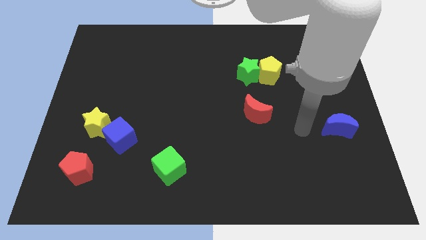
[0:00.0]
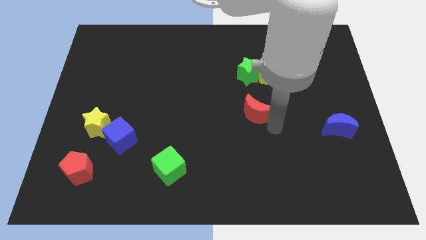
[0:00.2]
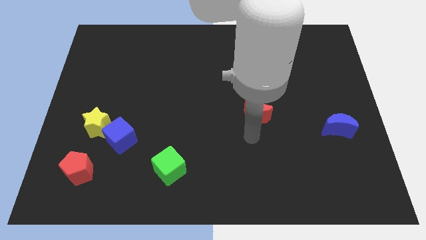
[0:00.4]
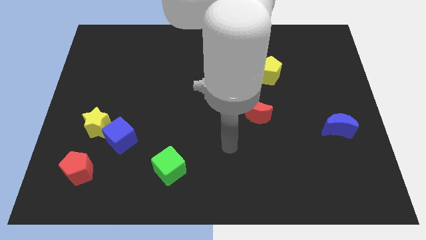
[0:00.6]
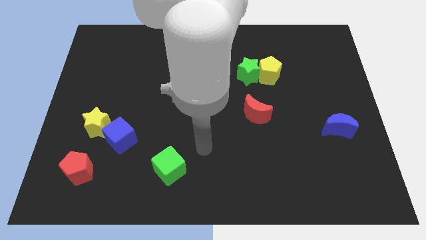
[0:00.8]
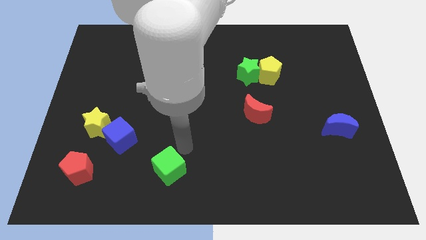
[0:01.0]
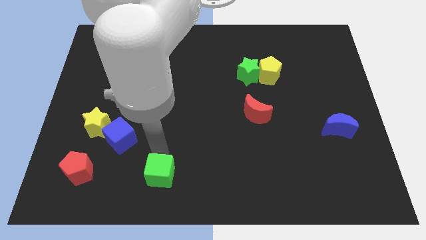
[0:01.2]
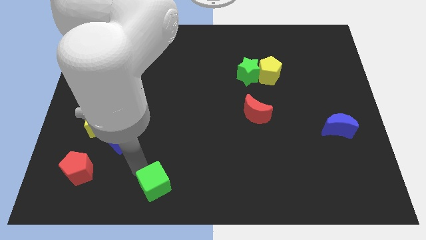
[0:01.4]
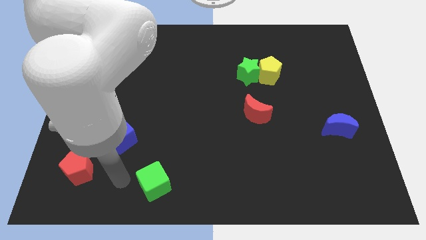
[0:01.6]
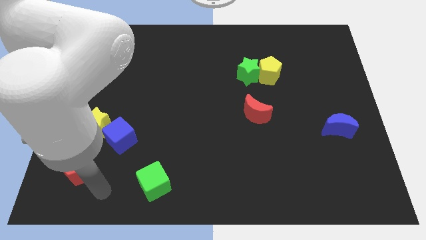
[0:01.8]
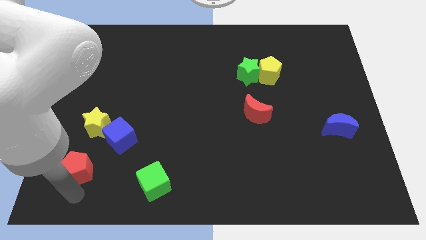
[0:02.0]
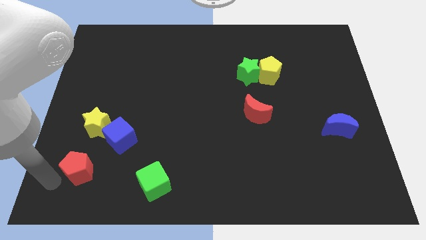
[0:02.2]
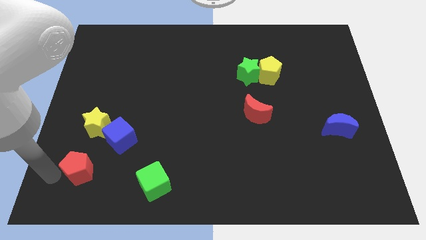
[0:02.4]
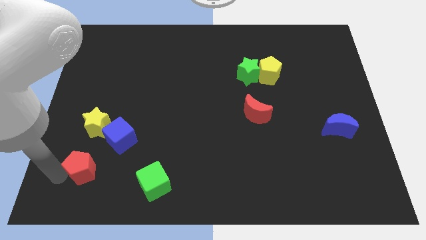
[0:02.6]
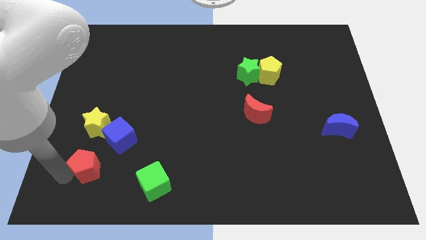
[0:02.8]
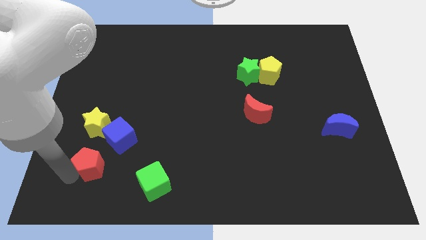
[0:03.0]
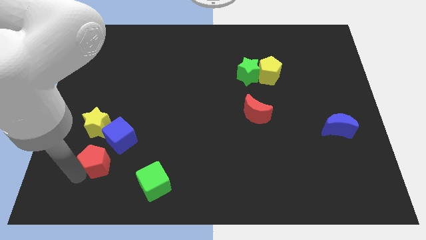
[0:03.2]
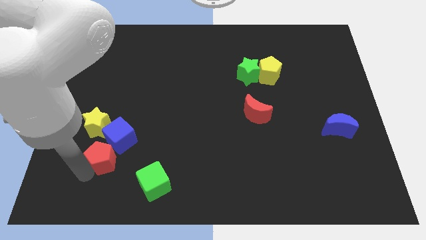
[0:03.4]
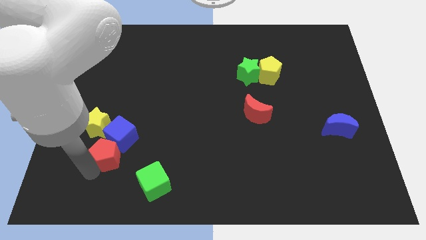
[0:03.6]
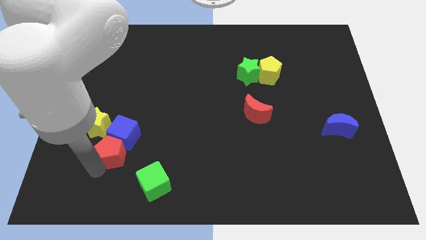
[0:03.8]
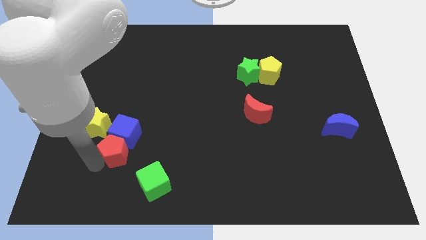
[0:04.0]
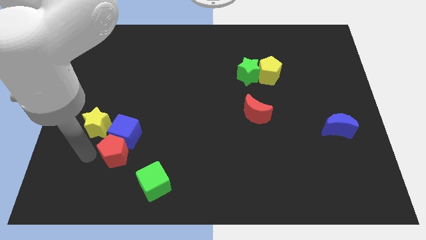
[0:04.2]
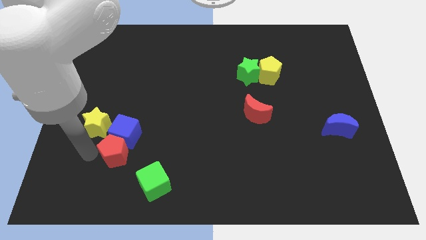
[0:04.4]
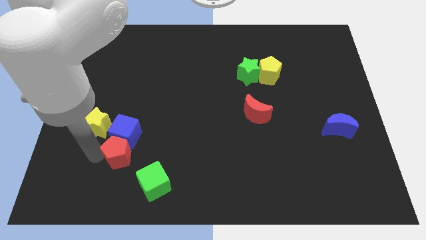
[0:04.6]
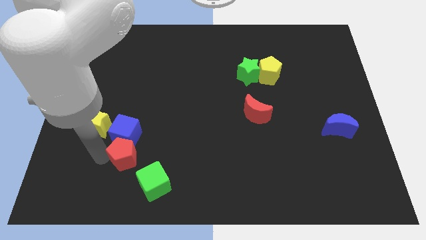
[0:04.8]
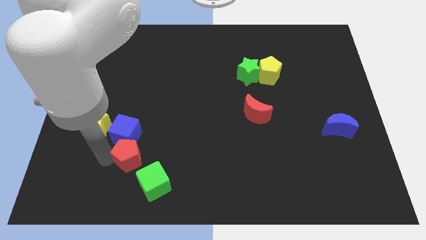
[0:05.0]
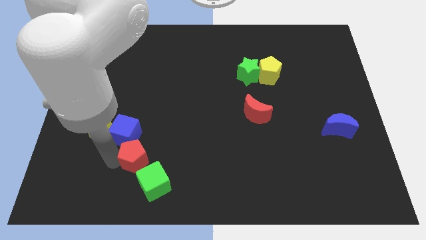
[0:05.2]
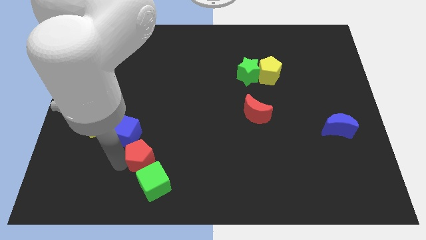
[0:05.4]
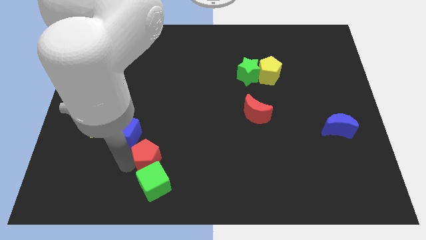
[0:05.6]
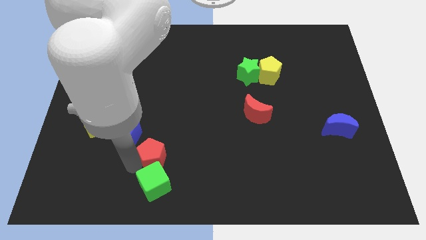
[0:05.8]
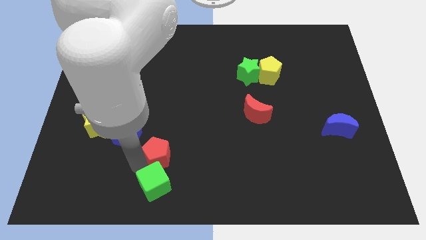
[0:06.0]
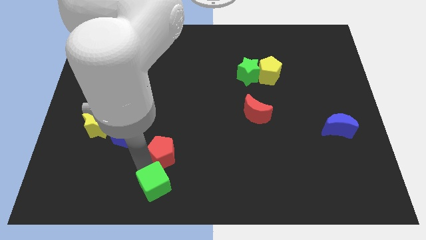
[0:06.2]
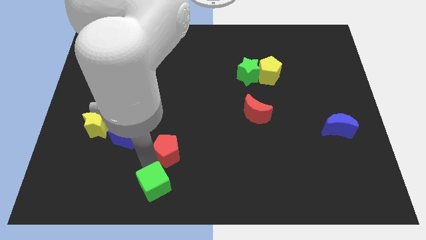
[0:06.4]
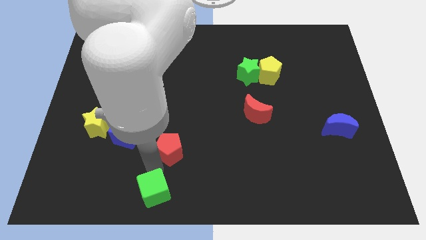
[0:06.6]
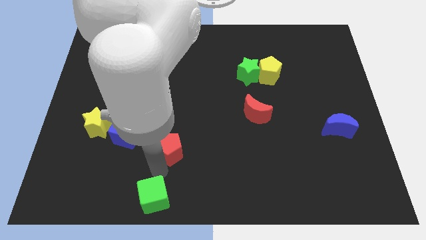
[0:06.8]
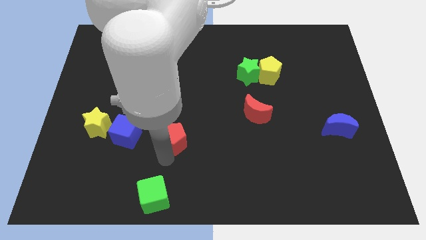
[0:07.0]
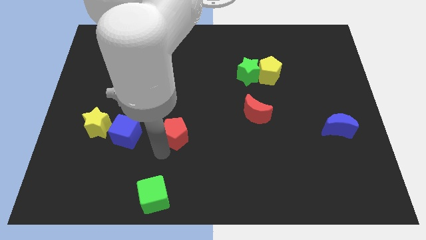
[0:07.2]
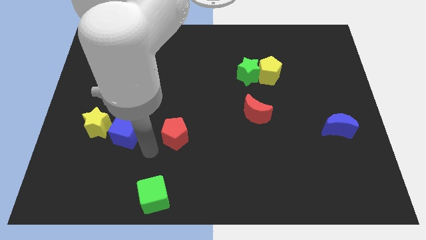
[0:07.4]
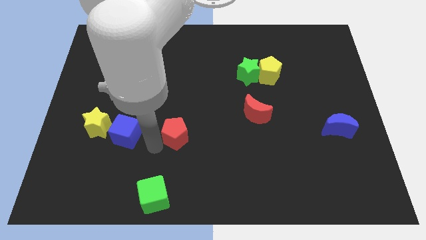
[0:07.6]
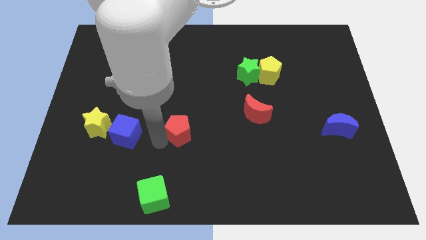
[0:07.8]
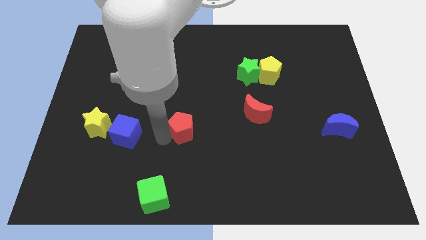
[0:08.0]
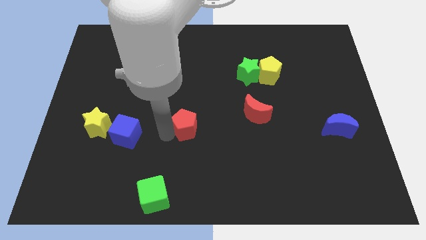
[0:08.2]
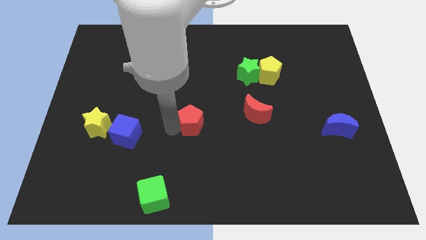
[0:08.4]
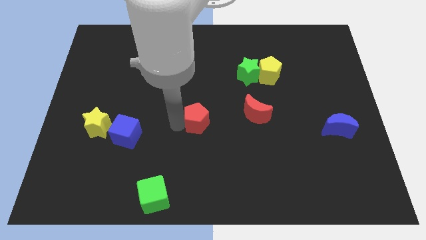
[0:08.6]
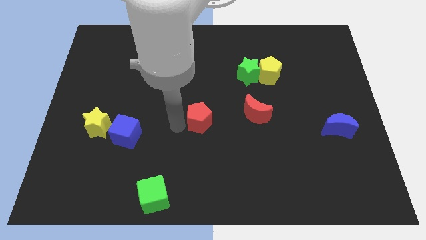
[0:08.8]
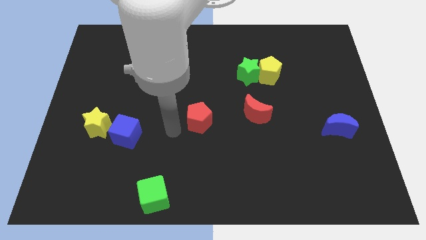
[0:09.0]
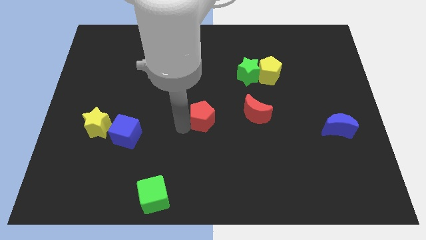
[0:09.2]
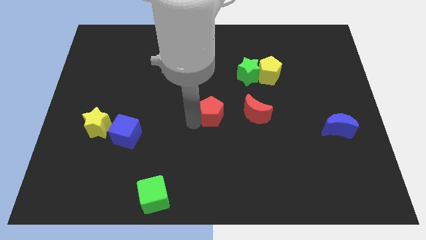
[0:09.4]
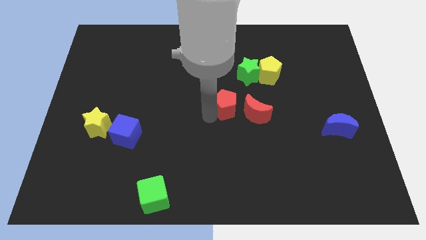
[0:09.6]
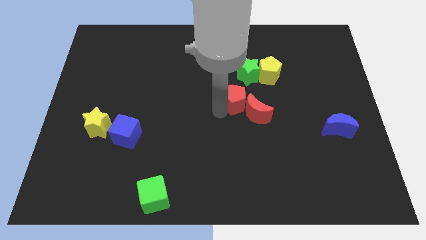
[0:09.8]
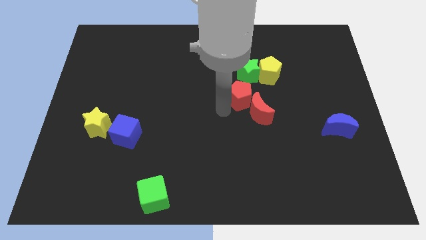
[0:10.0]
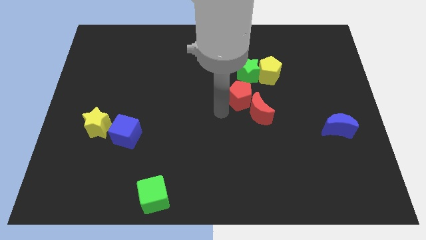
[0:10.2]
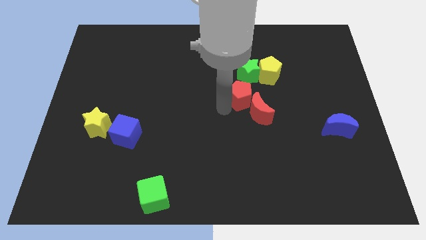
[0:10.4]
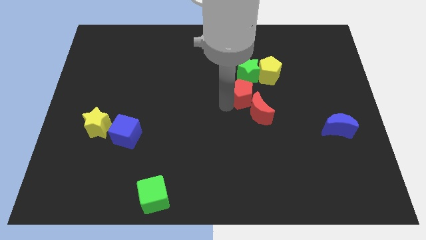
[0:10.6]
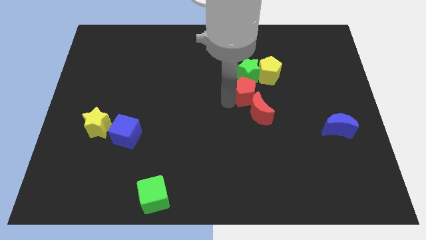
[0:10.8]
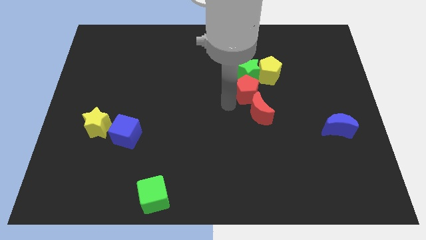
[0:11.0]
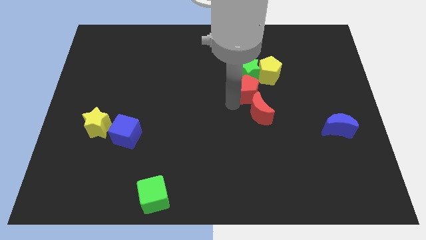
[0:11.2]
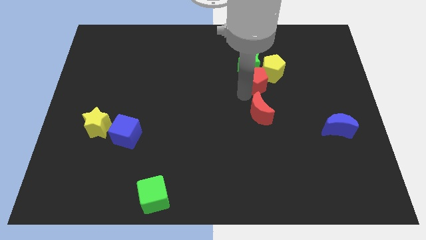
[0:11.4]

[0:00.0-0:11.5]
move the red pentagon next to the yellow pentagon
